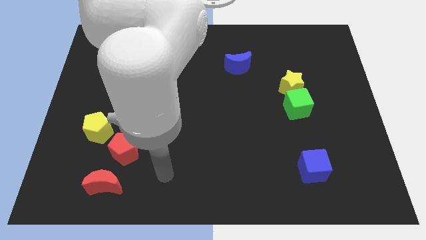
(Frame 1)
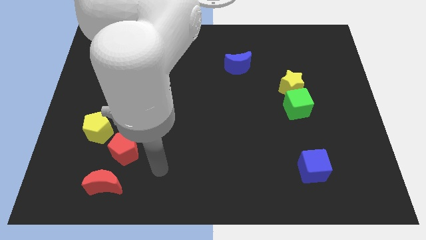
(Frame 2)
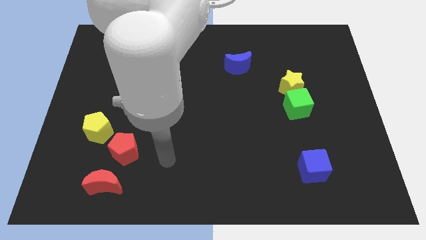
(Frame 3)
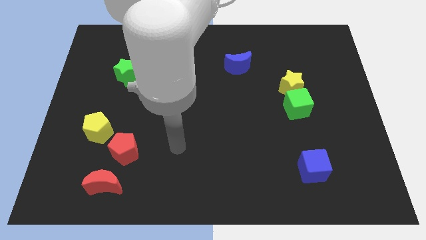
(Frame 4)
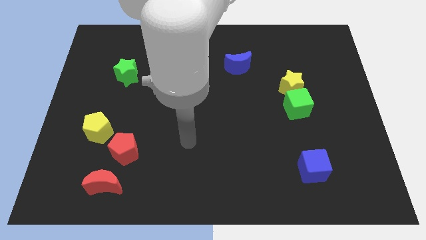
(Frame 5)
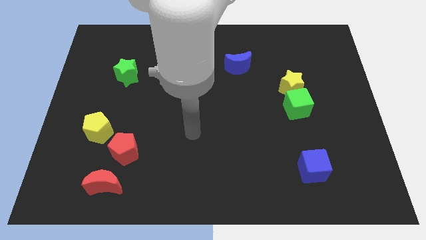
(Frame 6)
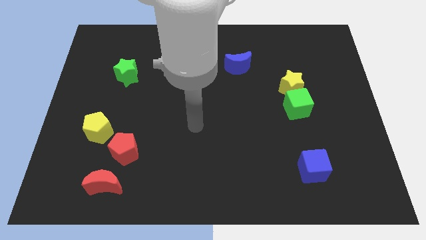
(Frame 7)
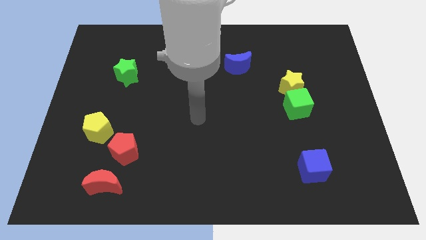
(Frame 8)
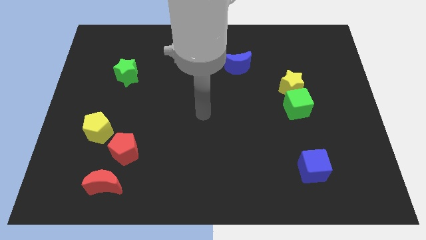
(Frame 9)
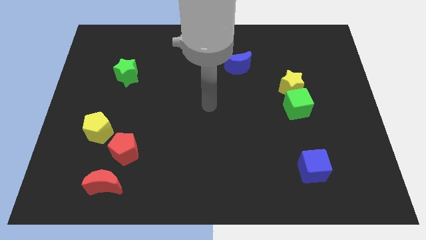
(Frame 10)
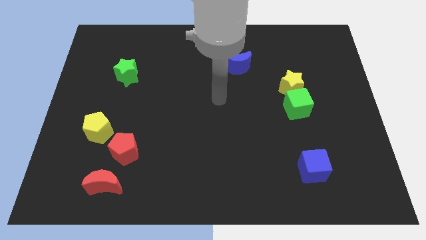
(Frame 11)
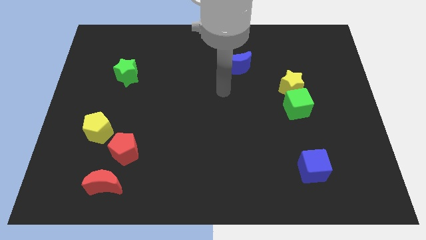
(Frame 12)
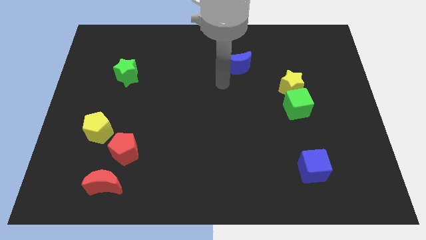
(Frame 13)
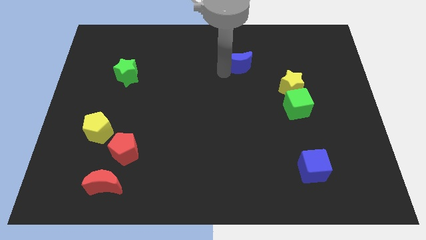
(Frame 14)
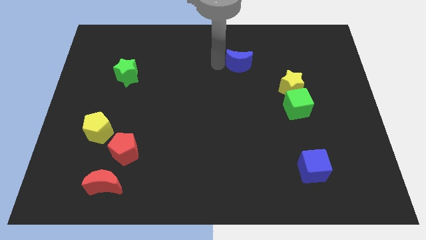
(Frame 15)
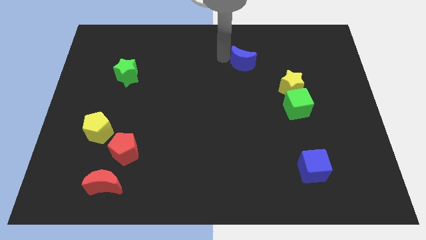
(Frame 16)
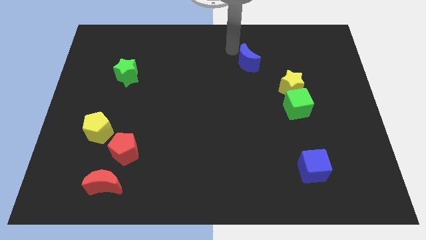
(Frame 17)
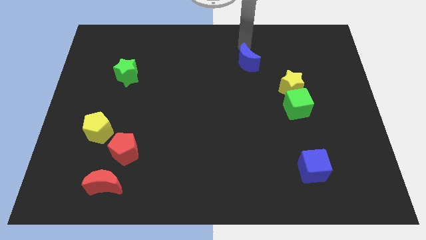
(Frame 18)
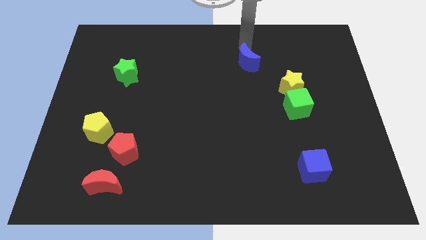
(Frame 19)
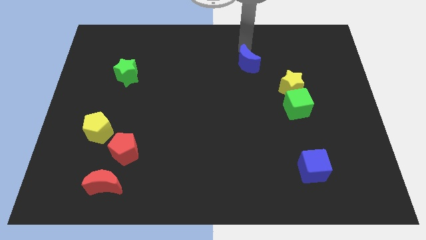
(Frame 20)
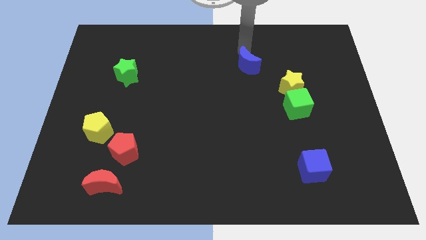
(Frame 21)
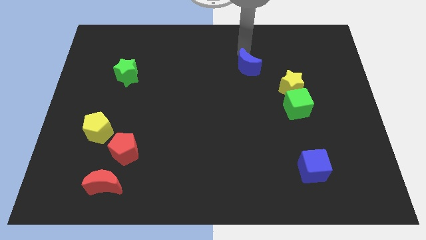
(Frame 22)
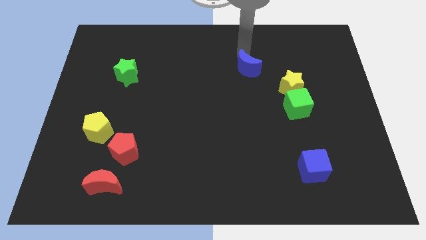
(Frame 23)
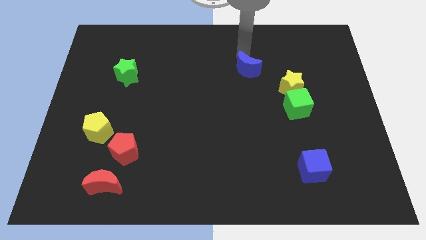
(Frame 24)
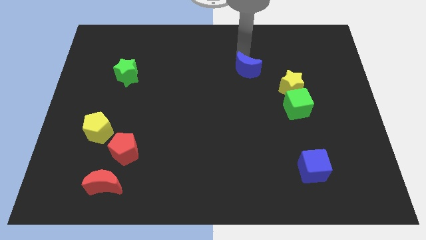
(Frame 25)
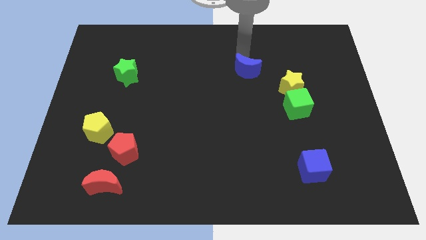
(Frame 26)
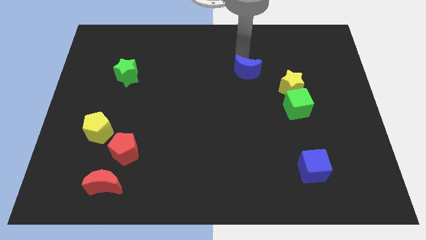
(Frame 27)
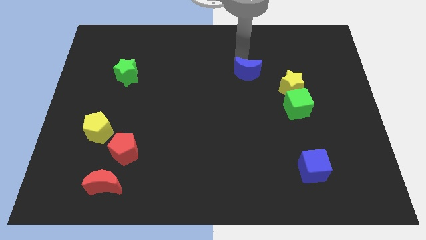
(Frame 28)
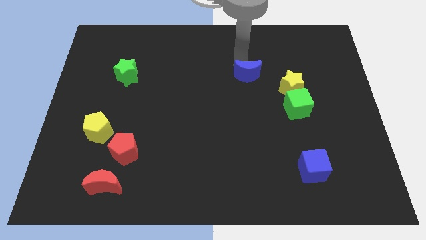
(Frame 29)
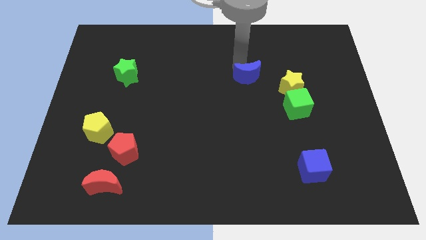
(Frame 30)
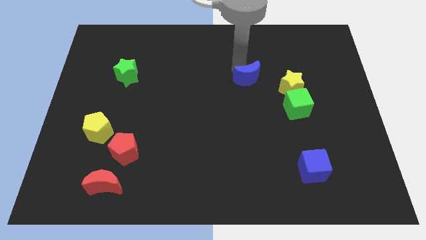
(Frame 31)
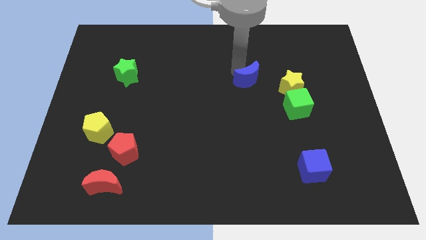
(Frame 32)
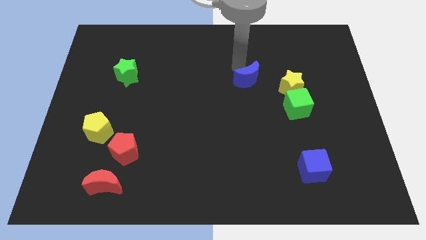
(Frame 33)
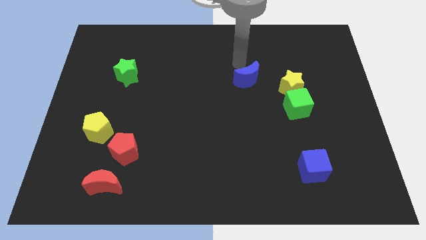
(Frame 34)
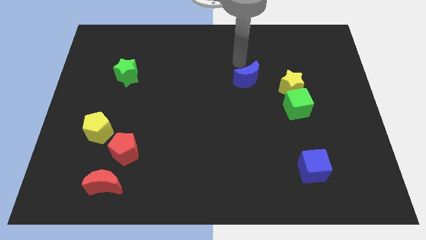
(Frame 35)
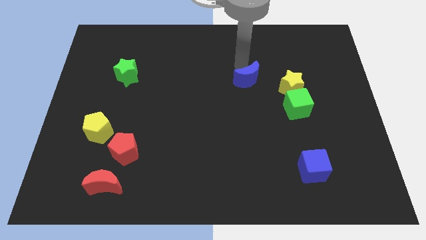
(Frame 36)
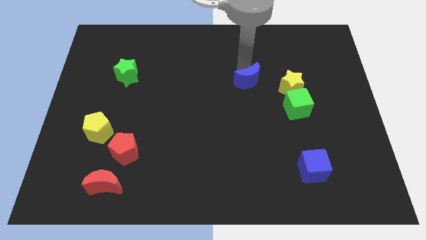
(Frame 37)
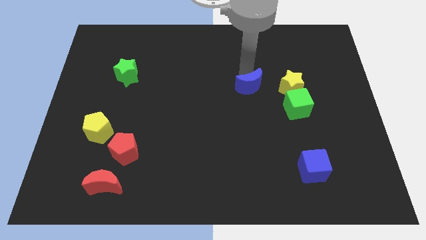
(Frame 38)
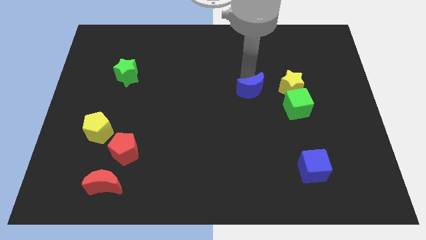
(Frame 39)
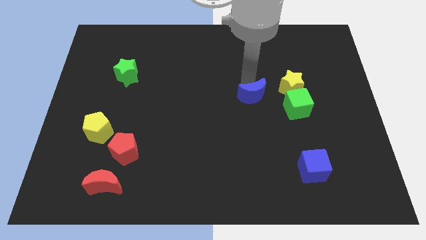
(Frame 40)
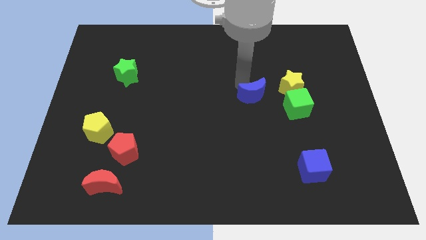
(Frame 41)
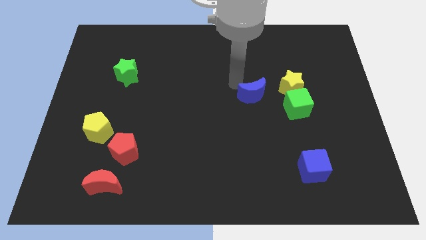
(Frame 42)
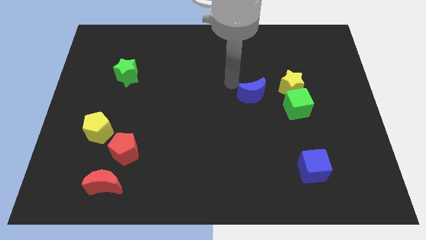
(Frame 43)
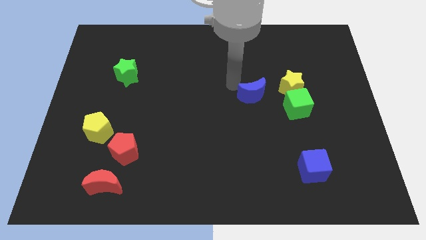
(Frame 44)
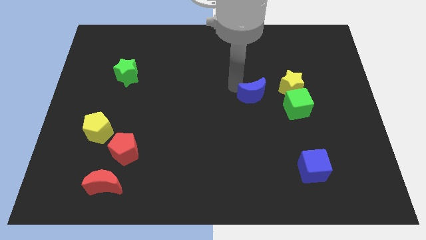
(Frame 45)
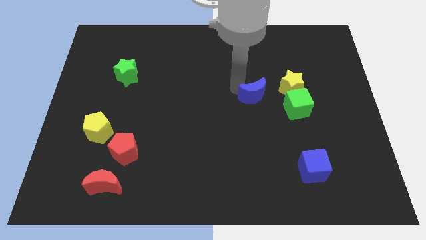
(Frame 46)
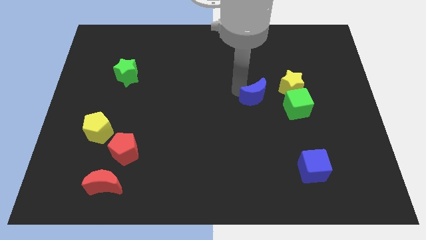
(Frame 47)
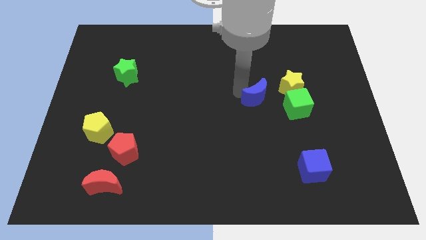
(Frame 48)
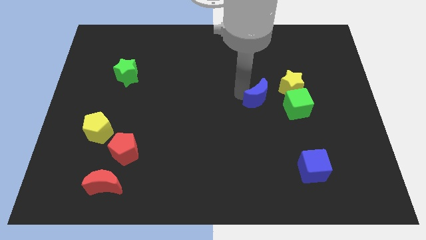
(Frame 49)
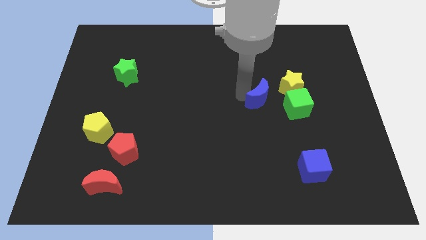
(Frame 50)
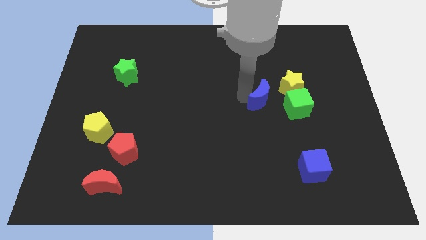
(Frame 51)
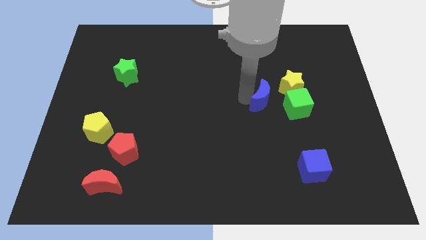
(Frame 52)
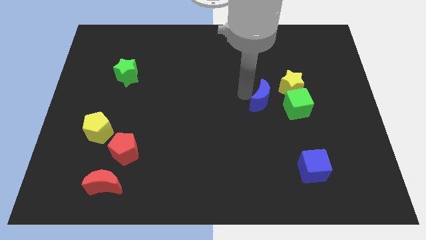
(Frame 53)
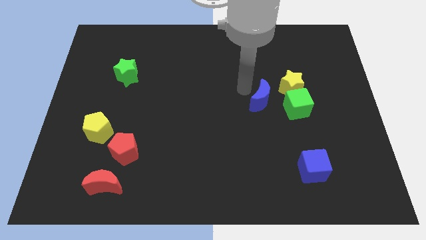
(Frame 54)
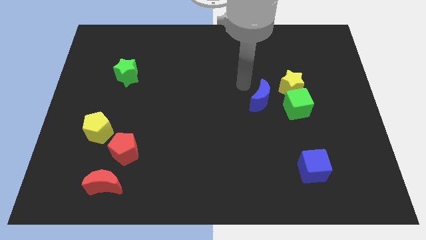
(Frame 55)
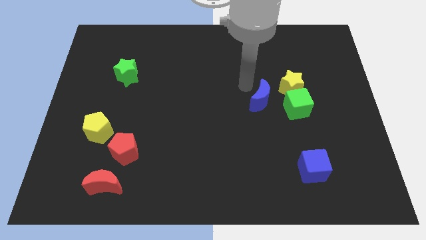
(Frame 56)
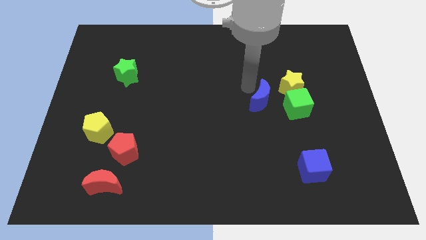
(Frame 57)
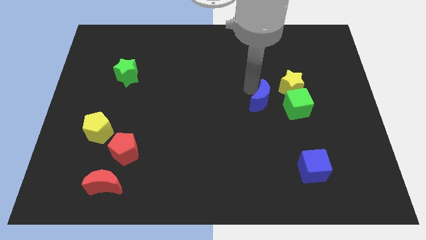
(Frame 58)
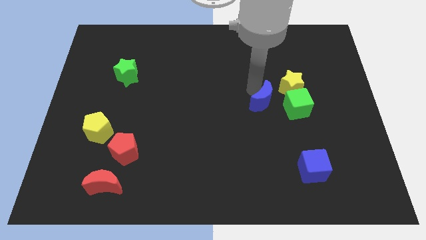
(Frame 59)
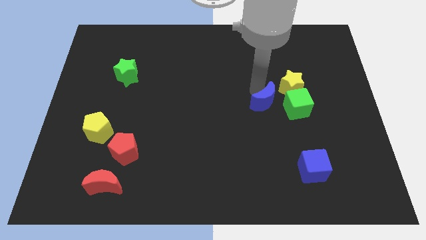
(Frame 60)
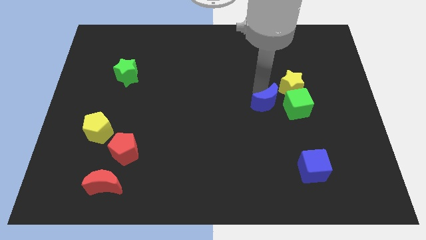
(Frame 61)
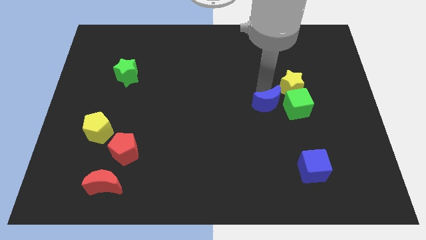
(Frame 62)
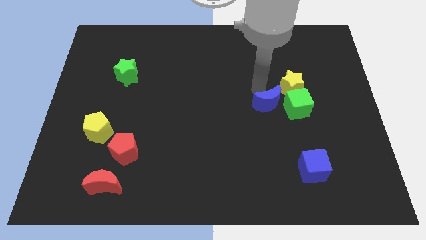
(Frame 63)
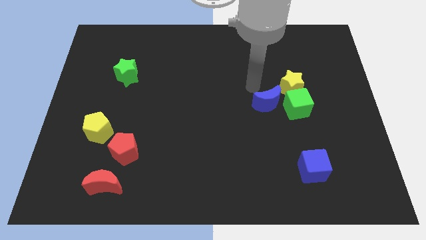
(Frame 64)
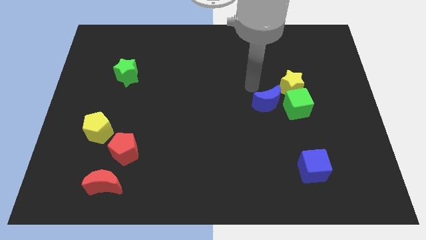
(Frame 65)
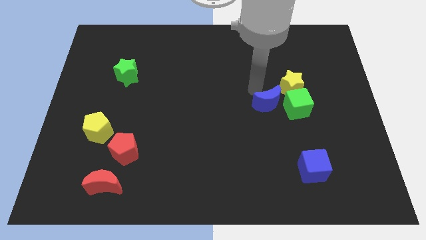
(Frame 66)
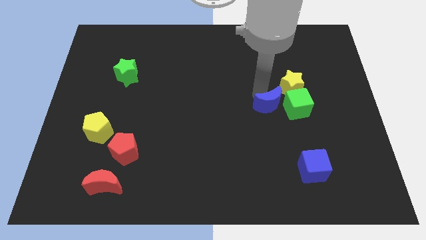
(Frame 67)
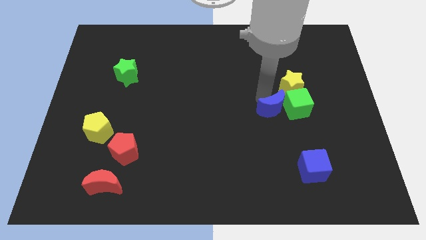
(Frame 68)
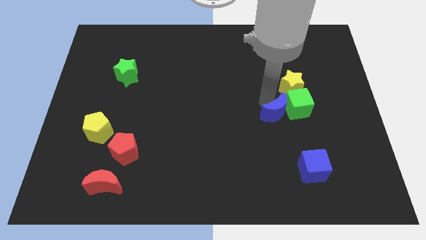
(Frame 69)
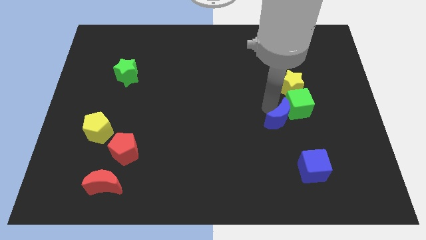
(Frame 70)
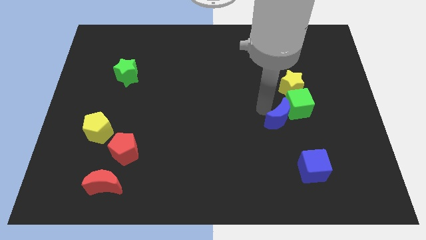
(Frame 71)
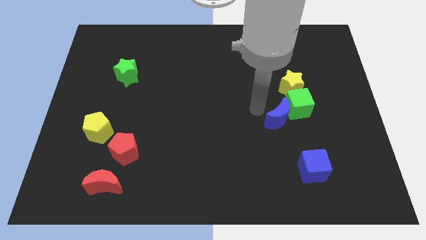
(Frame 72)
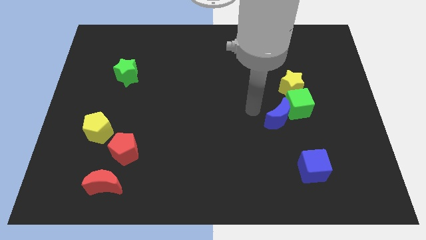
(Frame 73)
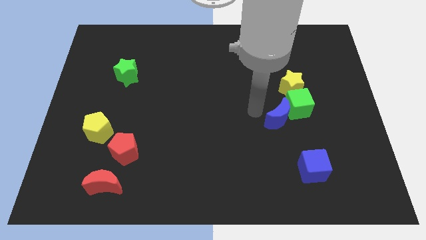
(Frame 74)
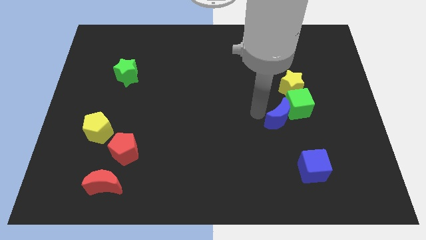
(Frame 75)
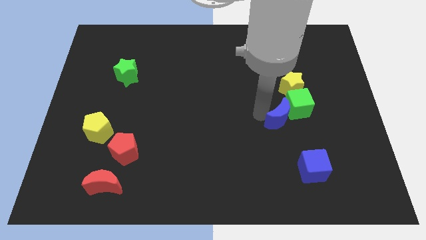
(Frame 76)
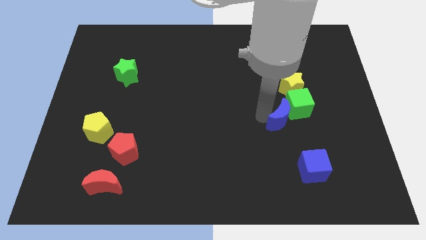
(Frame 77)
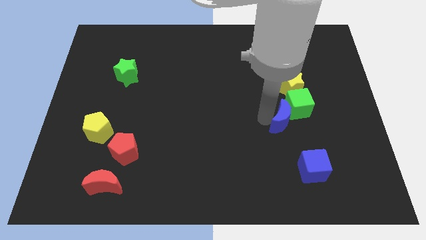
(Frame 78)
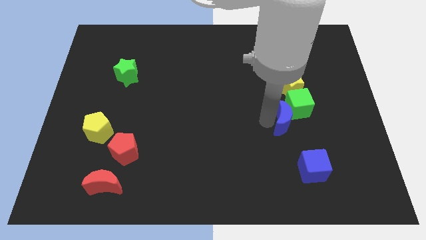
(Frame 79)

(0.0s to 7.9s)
slide the blue moon above the blue cube

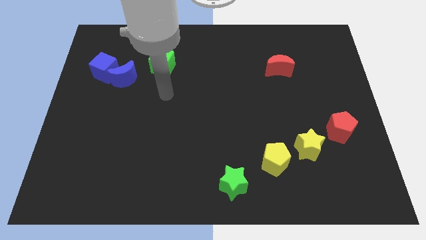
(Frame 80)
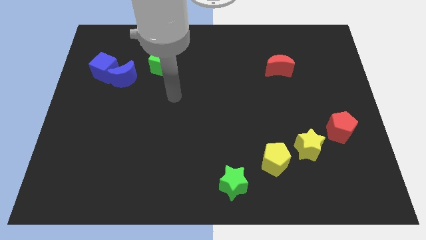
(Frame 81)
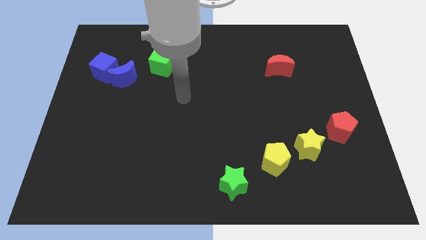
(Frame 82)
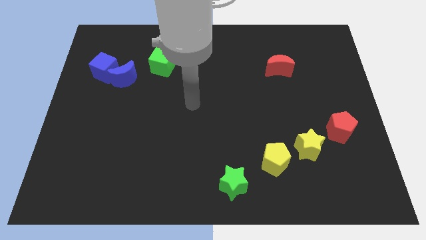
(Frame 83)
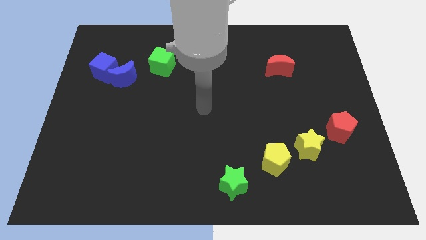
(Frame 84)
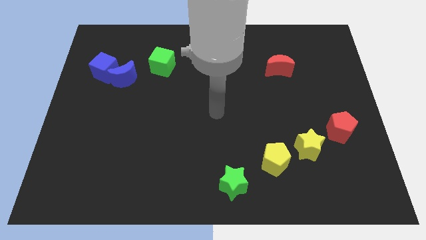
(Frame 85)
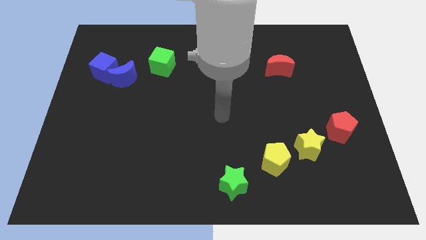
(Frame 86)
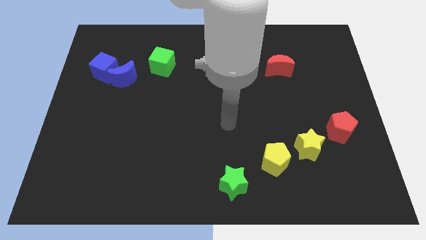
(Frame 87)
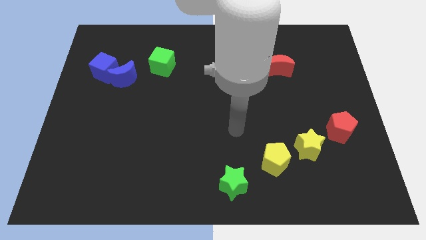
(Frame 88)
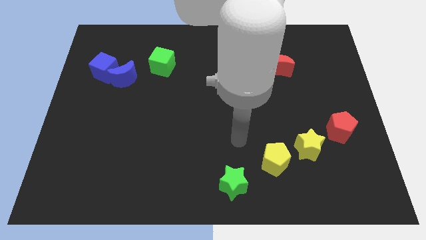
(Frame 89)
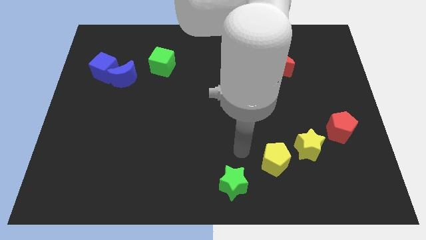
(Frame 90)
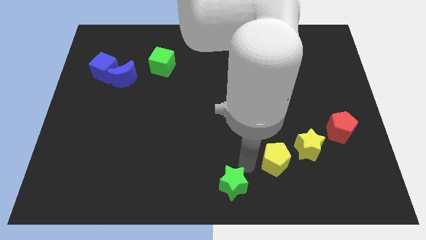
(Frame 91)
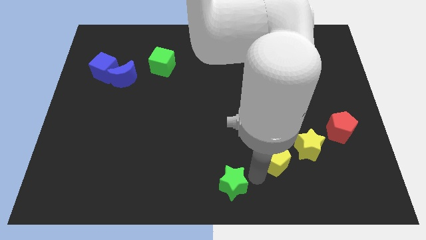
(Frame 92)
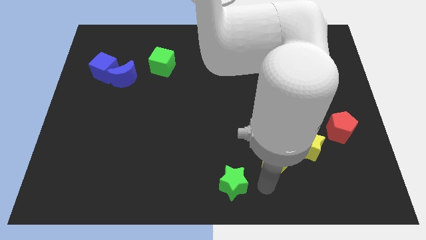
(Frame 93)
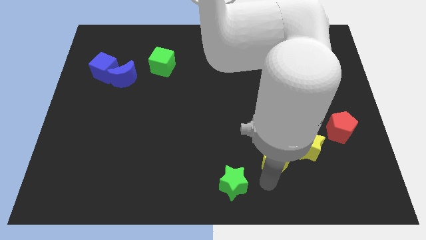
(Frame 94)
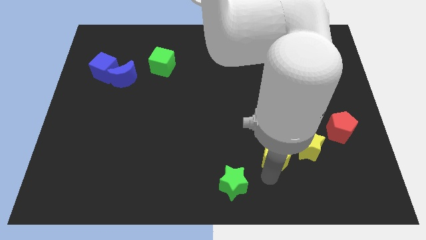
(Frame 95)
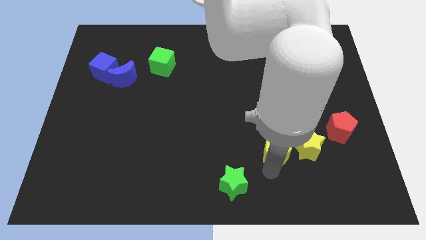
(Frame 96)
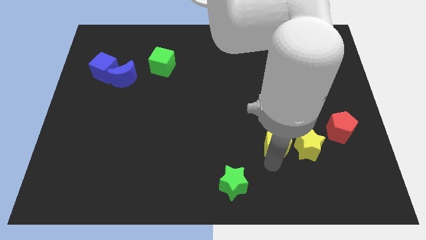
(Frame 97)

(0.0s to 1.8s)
slide the yellow pentagon to the top left side of the yellow star
